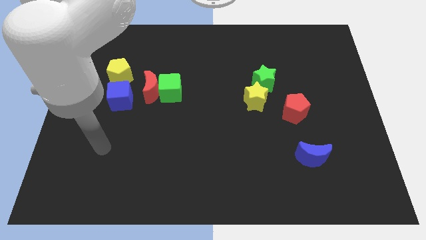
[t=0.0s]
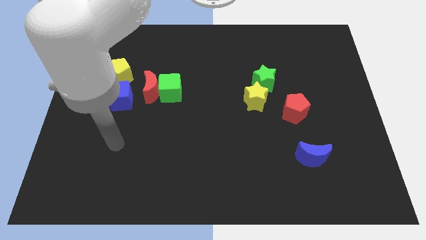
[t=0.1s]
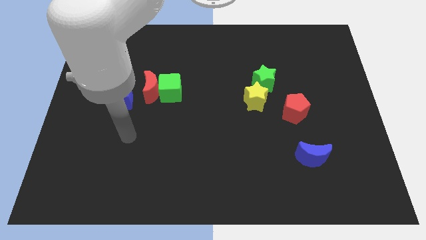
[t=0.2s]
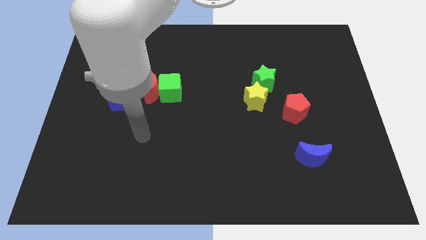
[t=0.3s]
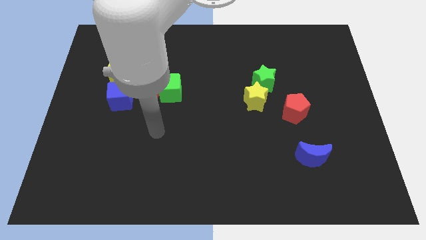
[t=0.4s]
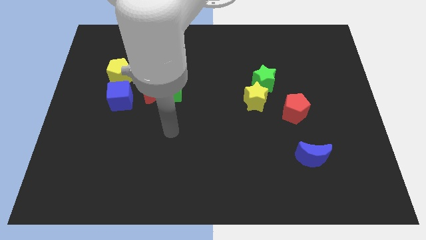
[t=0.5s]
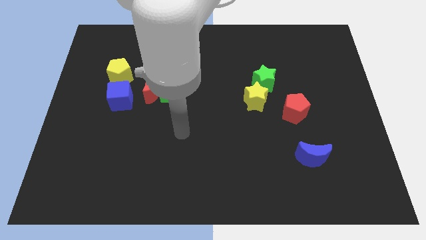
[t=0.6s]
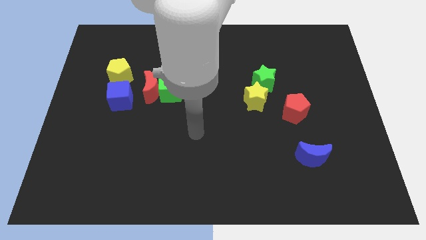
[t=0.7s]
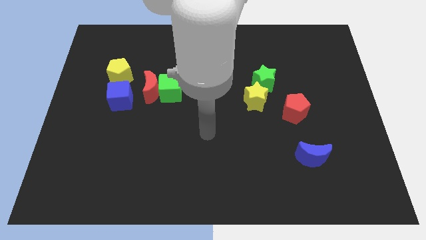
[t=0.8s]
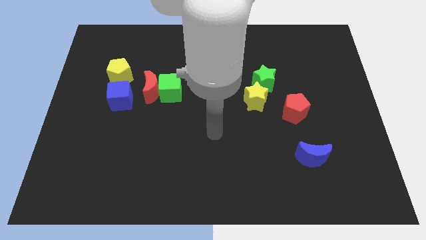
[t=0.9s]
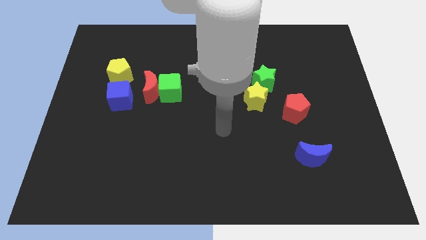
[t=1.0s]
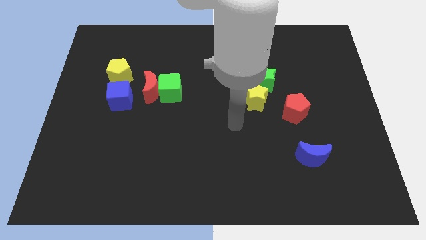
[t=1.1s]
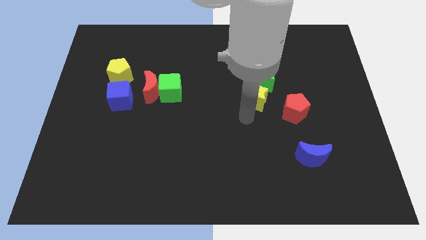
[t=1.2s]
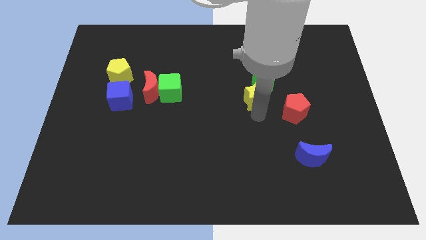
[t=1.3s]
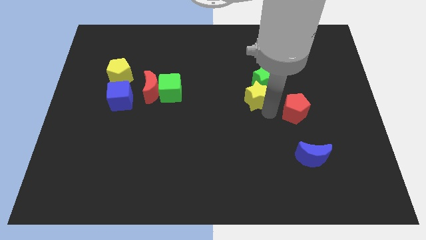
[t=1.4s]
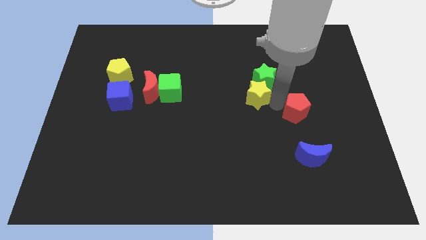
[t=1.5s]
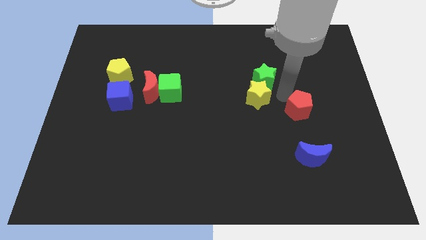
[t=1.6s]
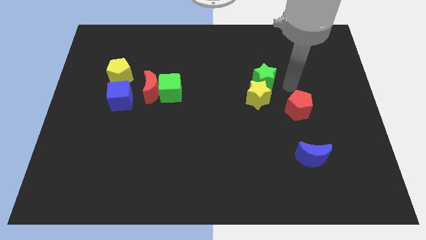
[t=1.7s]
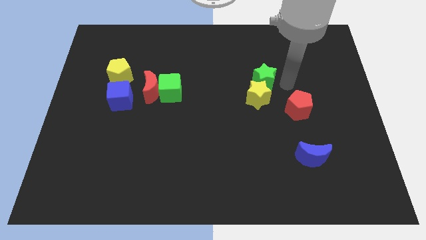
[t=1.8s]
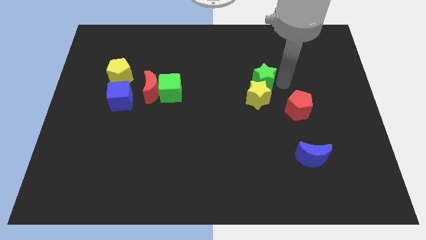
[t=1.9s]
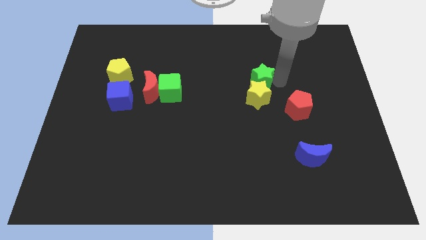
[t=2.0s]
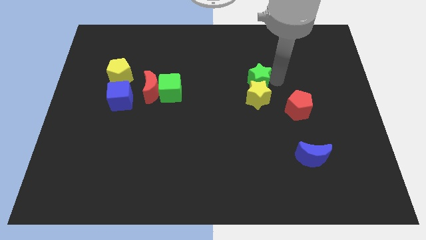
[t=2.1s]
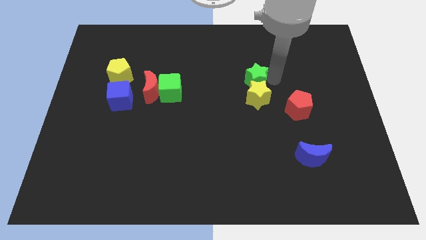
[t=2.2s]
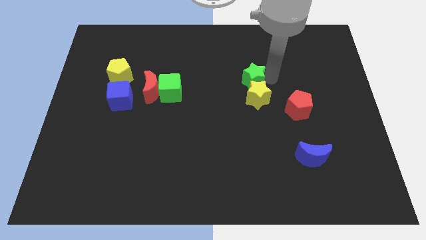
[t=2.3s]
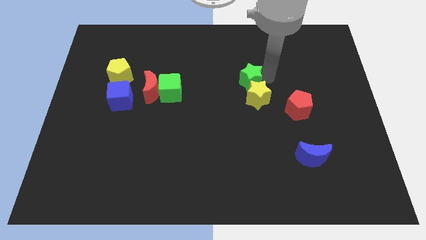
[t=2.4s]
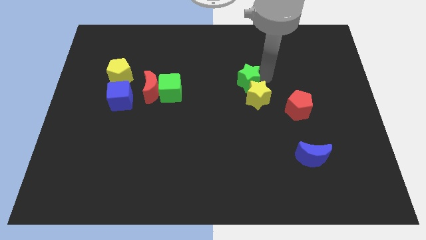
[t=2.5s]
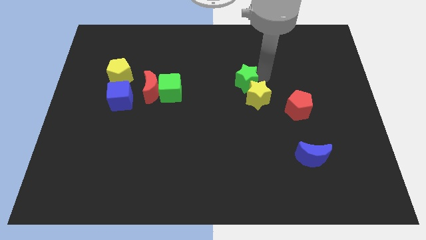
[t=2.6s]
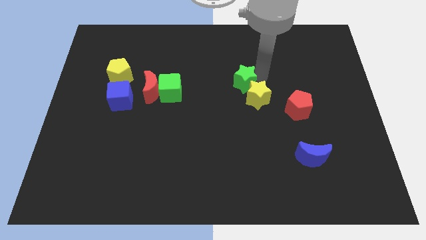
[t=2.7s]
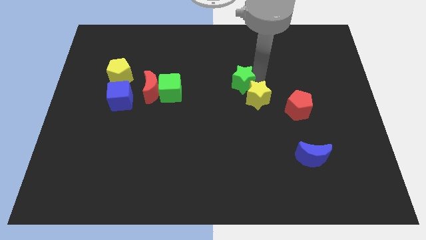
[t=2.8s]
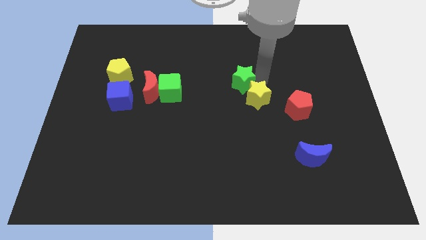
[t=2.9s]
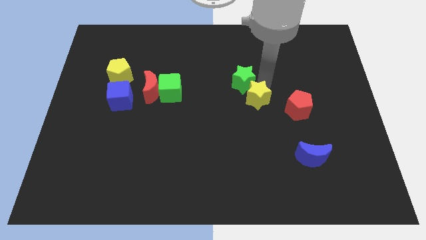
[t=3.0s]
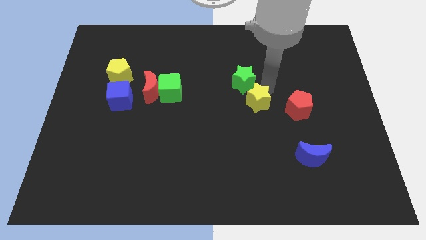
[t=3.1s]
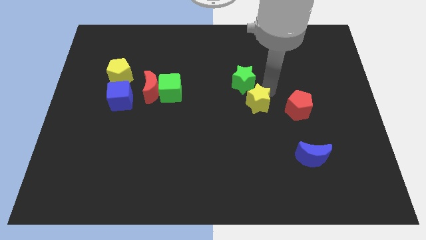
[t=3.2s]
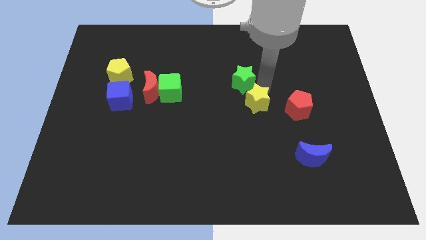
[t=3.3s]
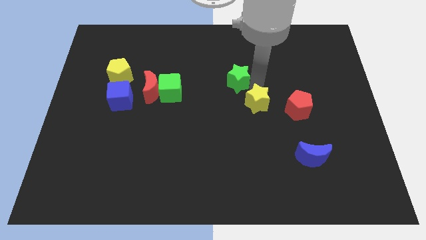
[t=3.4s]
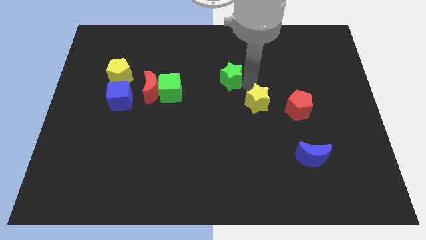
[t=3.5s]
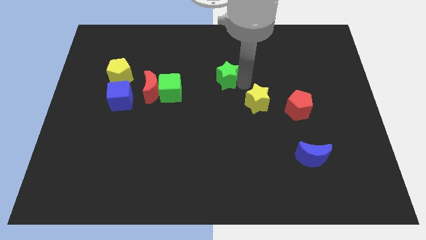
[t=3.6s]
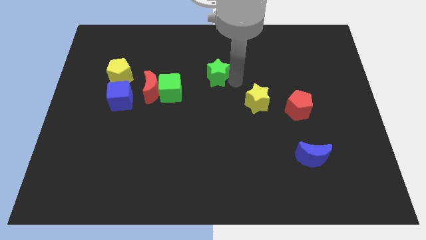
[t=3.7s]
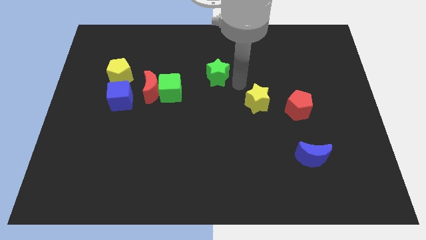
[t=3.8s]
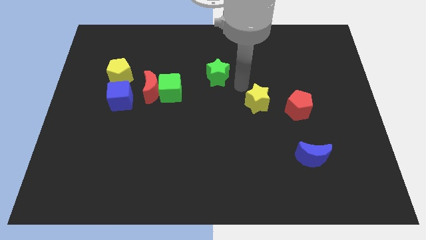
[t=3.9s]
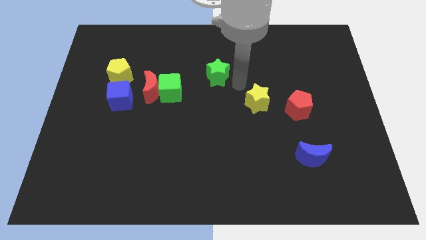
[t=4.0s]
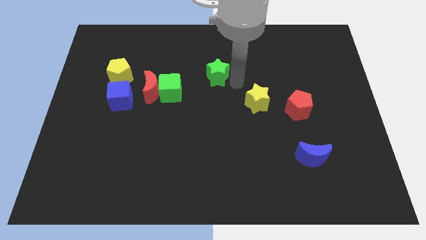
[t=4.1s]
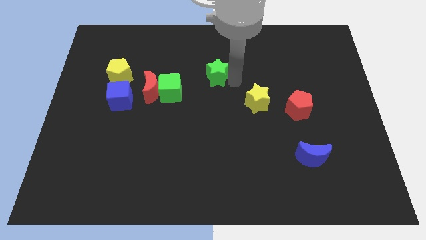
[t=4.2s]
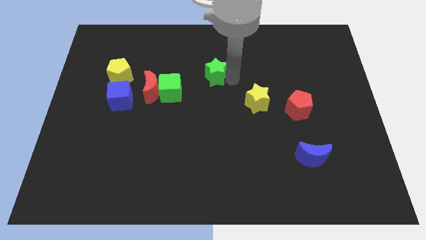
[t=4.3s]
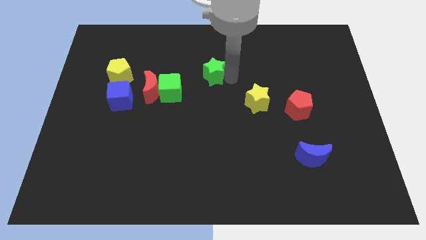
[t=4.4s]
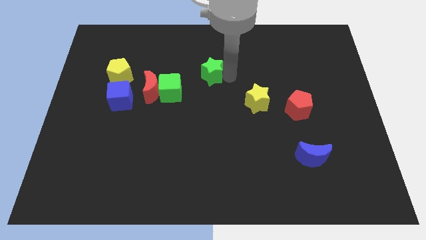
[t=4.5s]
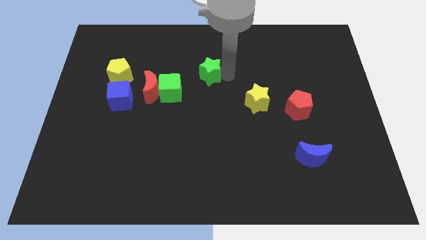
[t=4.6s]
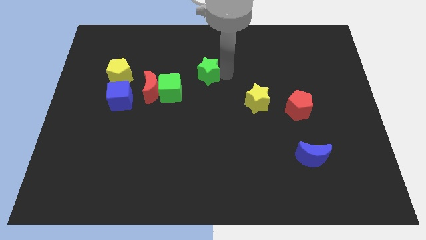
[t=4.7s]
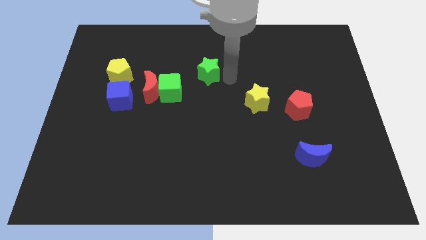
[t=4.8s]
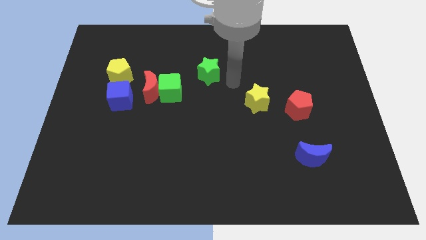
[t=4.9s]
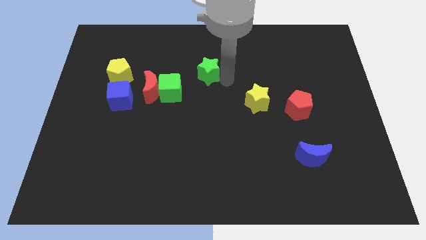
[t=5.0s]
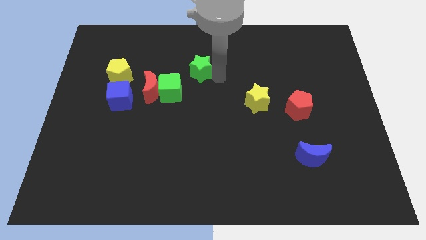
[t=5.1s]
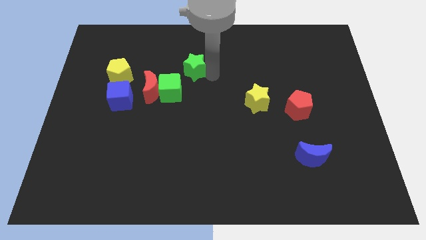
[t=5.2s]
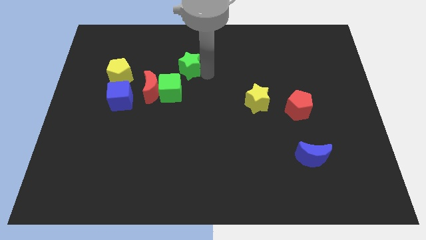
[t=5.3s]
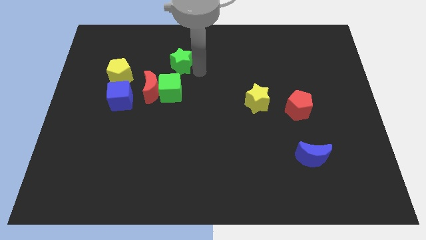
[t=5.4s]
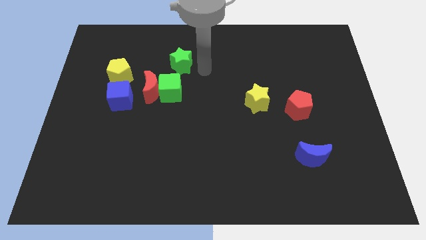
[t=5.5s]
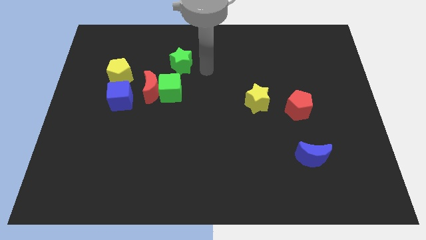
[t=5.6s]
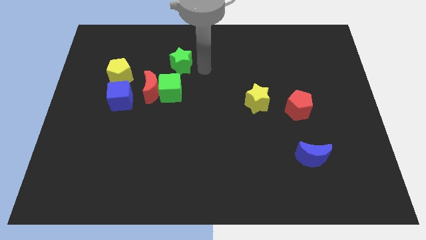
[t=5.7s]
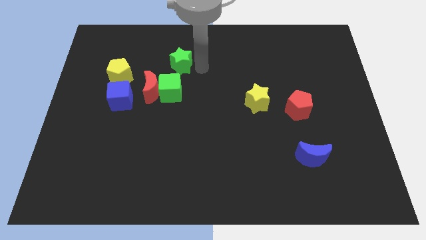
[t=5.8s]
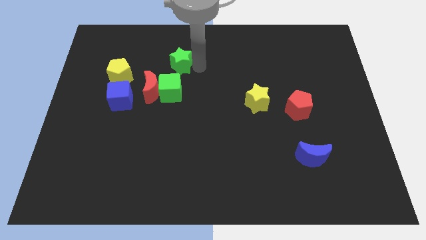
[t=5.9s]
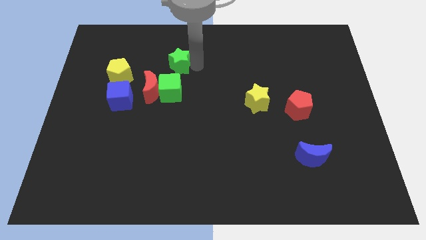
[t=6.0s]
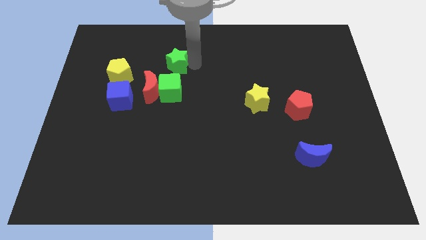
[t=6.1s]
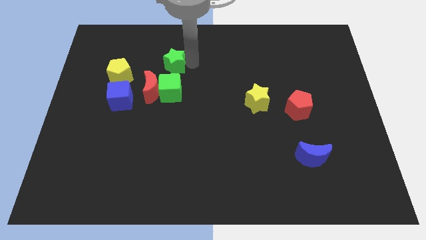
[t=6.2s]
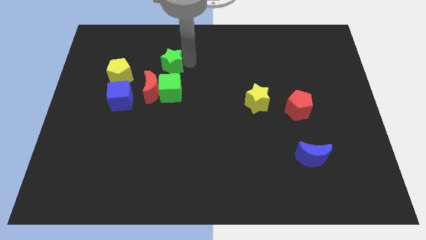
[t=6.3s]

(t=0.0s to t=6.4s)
move the green star to the top of the red moon
